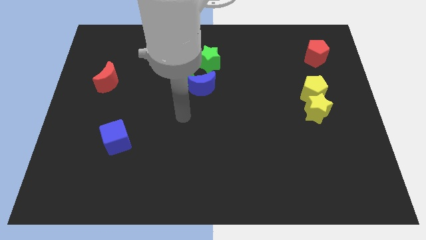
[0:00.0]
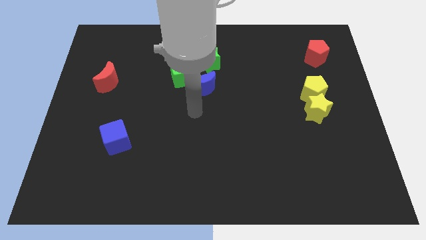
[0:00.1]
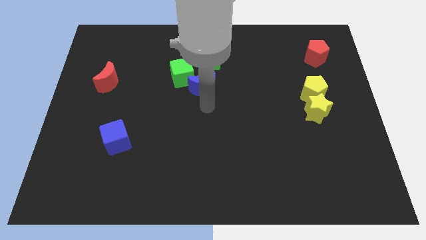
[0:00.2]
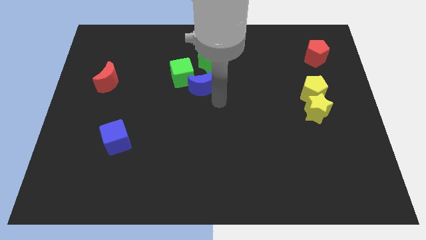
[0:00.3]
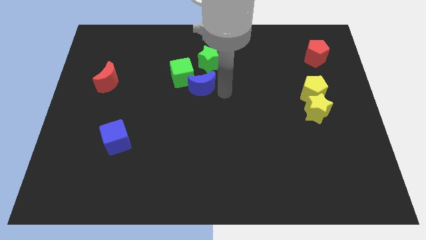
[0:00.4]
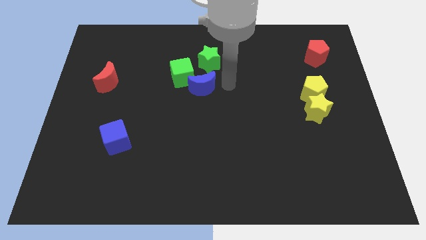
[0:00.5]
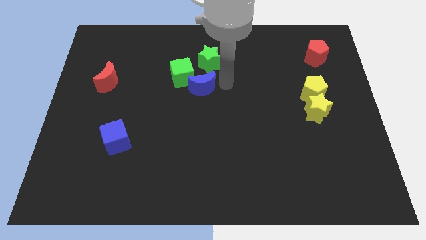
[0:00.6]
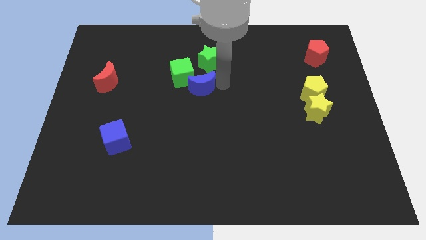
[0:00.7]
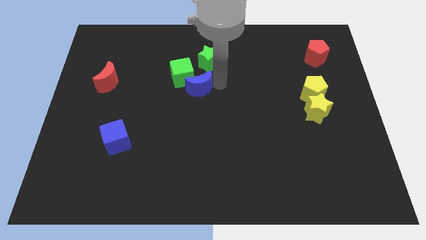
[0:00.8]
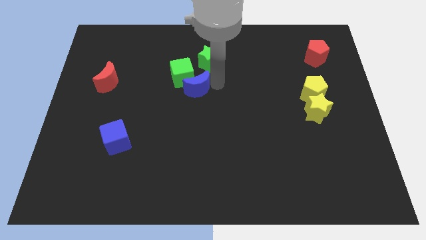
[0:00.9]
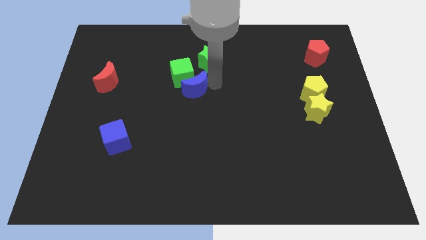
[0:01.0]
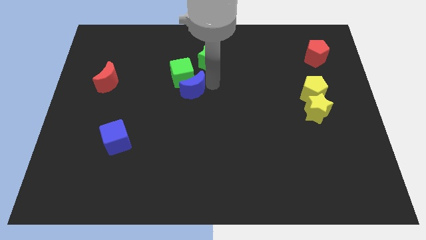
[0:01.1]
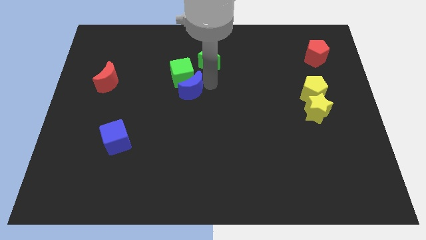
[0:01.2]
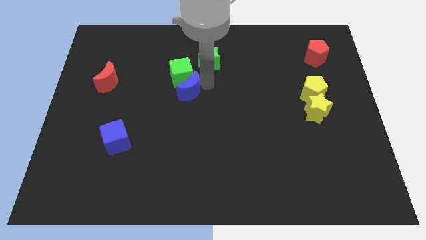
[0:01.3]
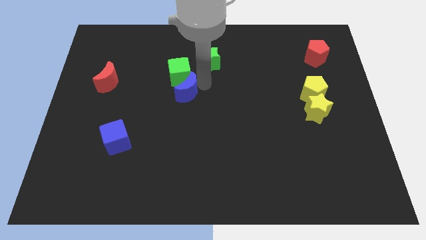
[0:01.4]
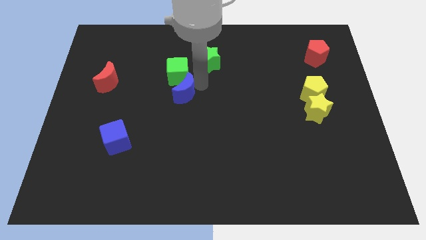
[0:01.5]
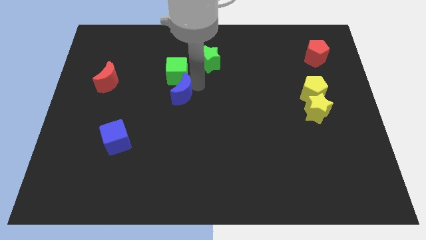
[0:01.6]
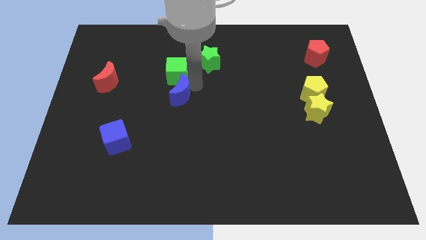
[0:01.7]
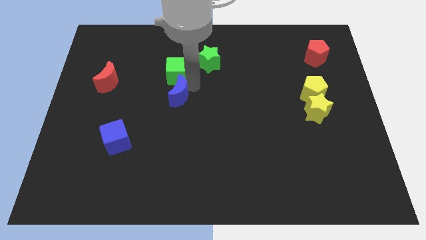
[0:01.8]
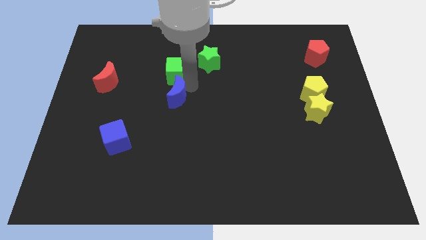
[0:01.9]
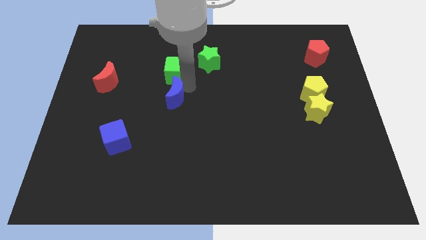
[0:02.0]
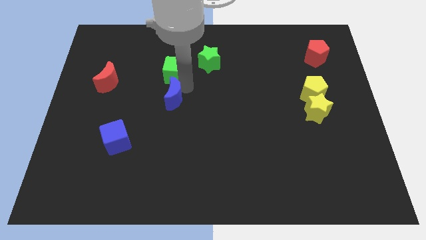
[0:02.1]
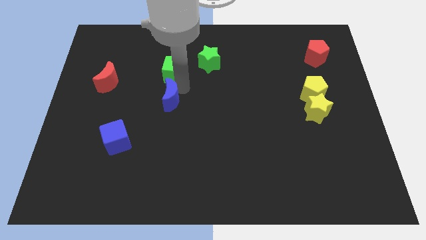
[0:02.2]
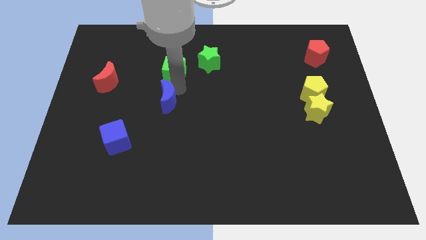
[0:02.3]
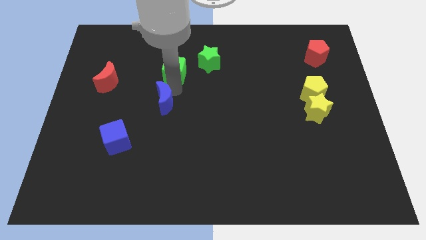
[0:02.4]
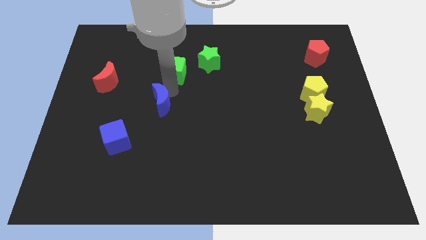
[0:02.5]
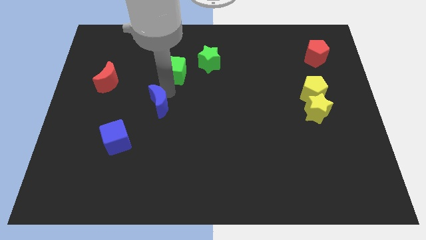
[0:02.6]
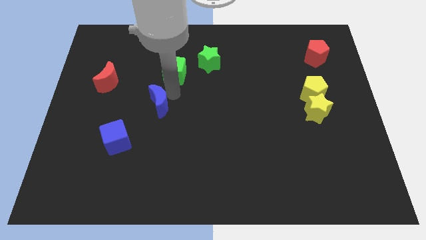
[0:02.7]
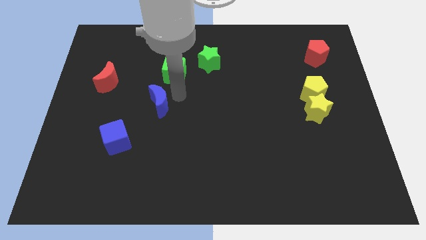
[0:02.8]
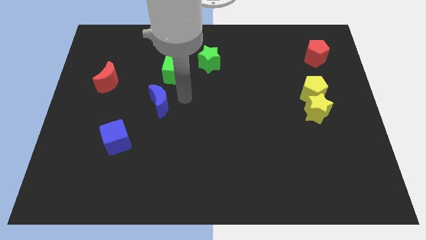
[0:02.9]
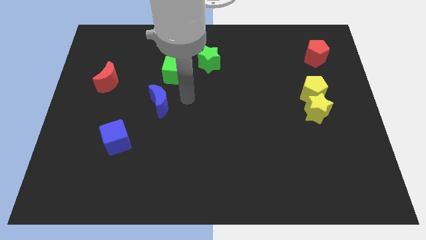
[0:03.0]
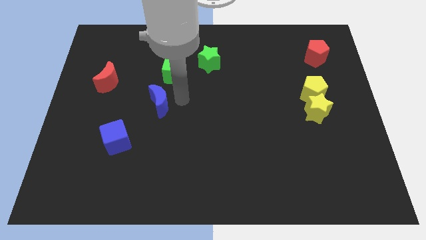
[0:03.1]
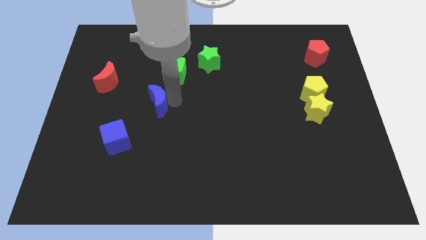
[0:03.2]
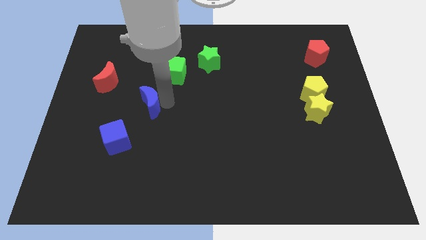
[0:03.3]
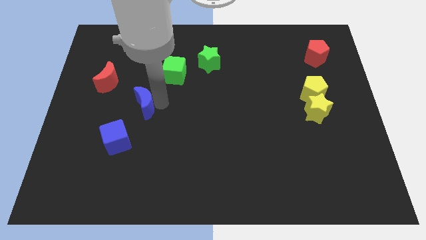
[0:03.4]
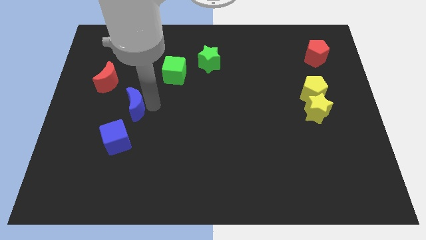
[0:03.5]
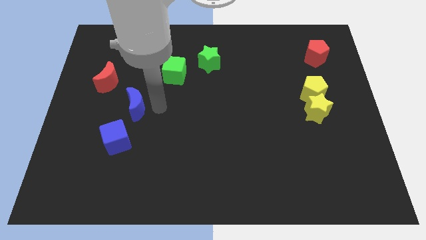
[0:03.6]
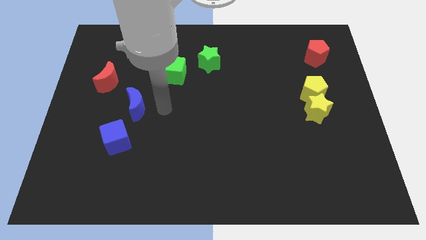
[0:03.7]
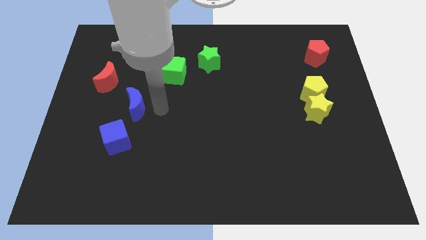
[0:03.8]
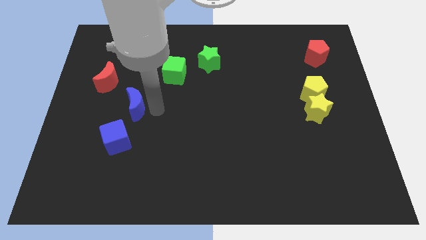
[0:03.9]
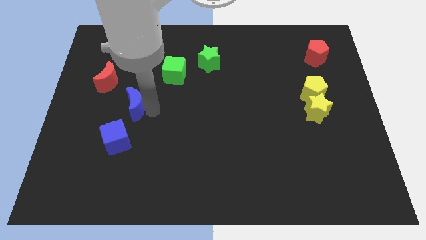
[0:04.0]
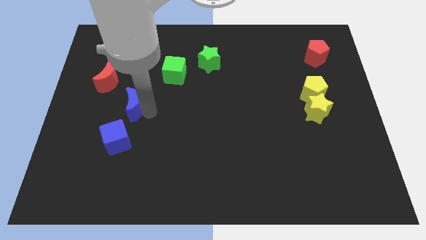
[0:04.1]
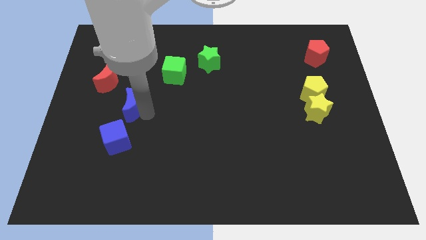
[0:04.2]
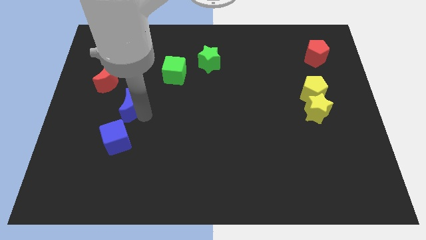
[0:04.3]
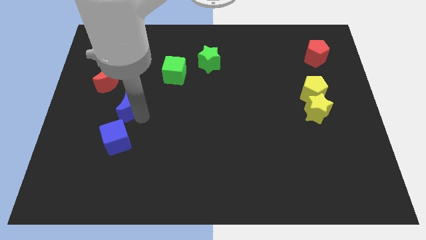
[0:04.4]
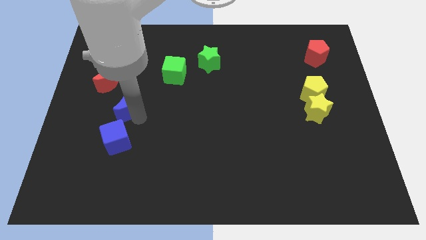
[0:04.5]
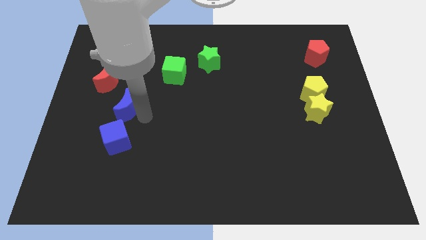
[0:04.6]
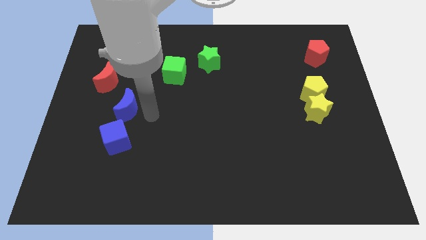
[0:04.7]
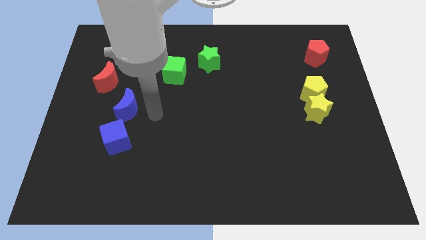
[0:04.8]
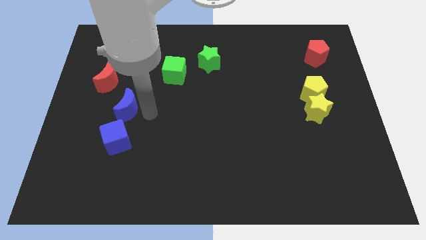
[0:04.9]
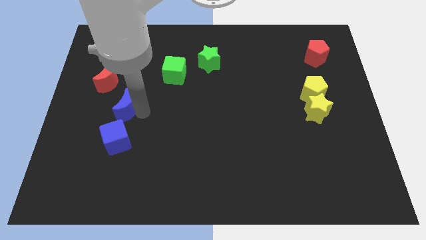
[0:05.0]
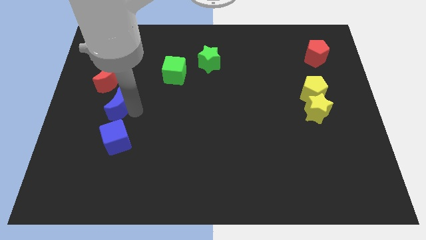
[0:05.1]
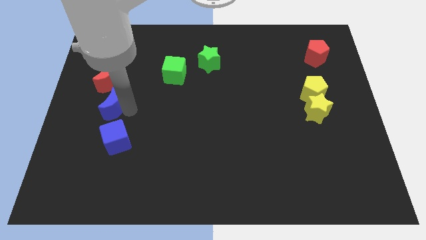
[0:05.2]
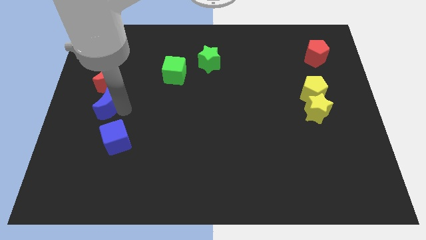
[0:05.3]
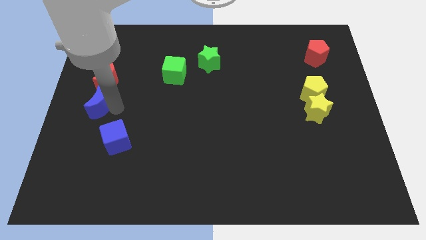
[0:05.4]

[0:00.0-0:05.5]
slide the blue moon to the center left
